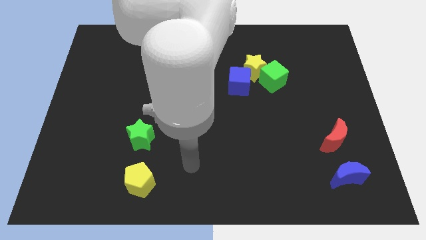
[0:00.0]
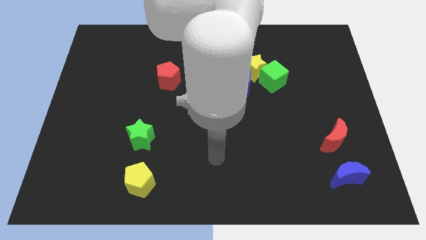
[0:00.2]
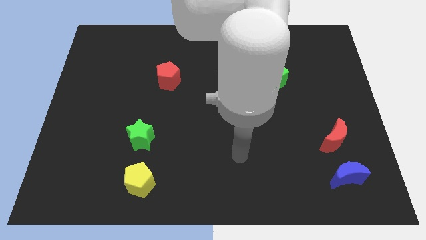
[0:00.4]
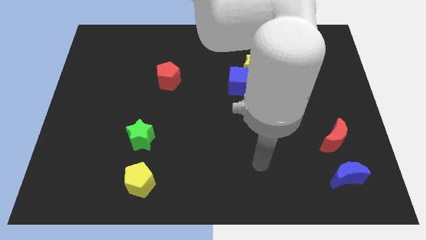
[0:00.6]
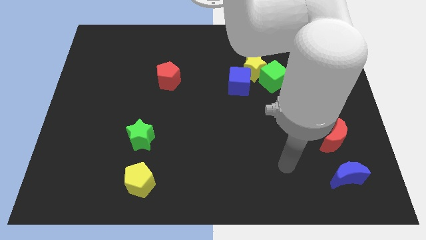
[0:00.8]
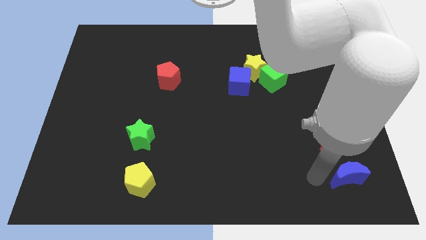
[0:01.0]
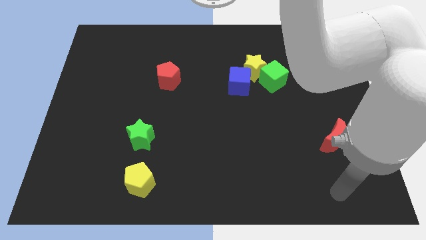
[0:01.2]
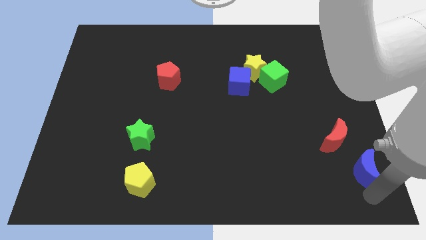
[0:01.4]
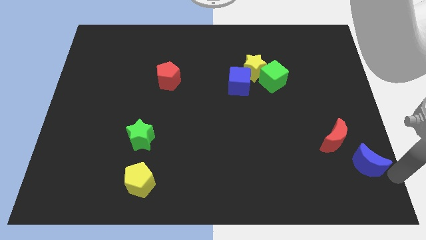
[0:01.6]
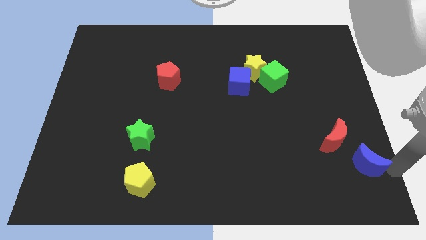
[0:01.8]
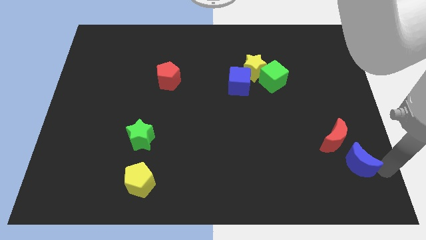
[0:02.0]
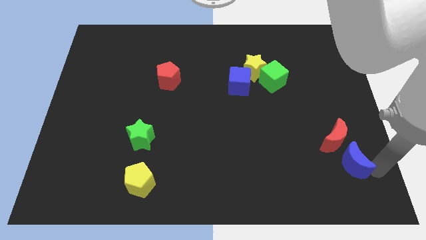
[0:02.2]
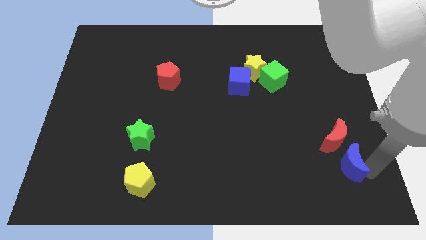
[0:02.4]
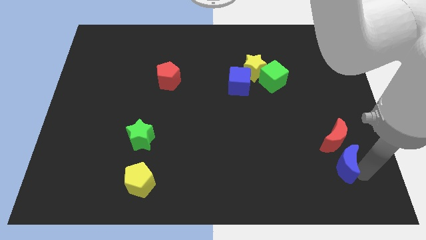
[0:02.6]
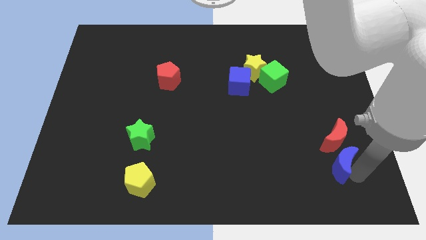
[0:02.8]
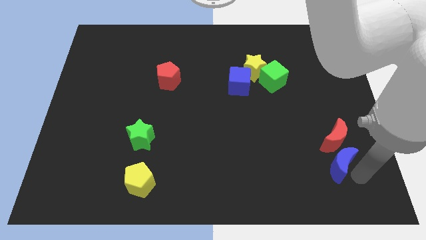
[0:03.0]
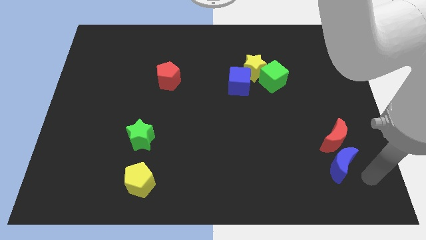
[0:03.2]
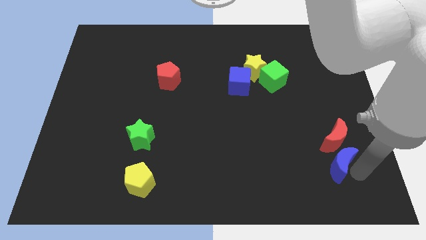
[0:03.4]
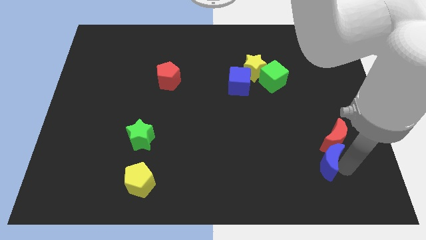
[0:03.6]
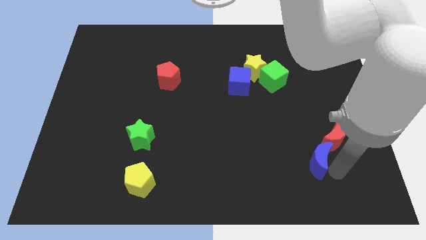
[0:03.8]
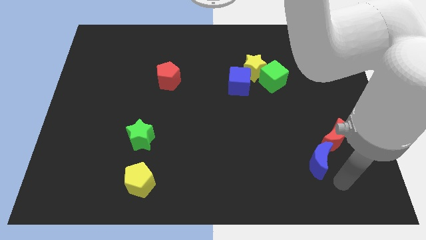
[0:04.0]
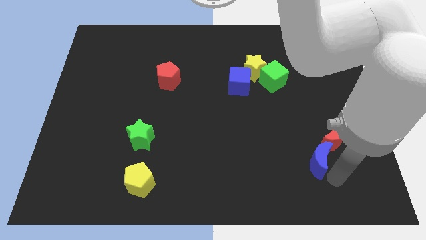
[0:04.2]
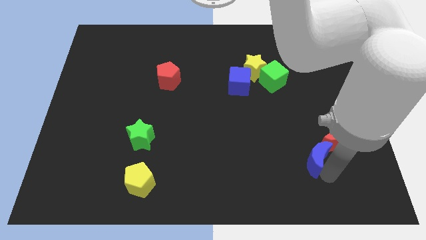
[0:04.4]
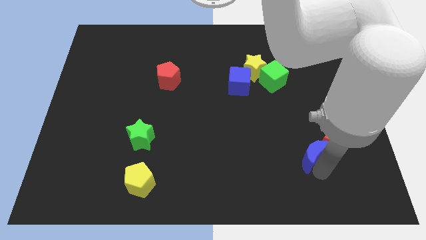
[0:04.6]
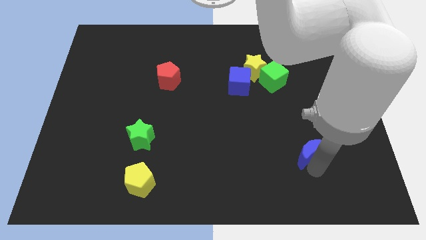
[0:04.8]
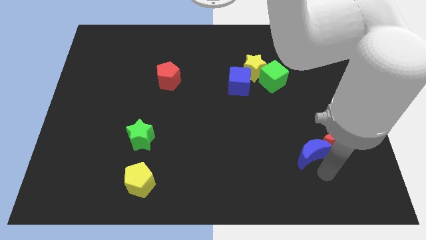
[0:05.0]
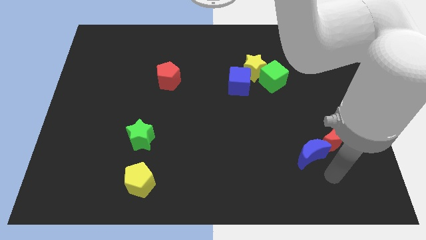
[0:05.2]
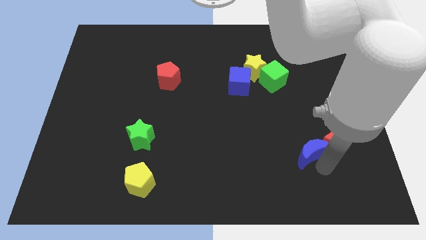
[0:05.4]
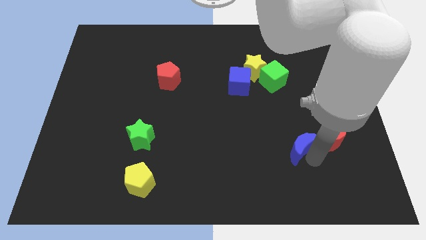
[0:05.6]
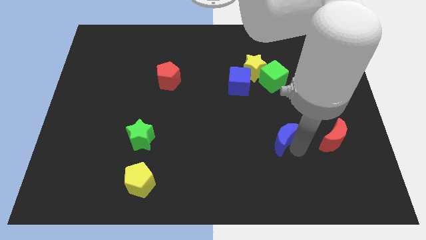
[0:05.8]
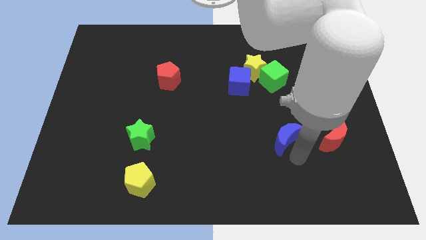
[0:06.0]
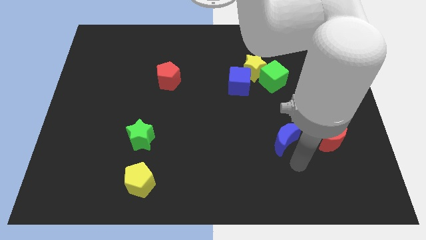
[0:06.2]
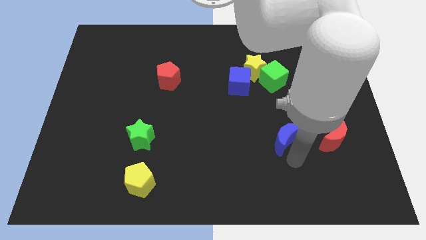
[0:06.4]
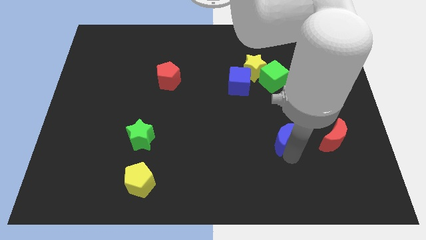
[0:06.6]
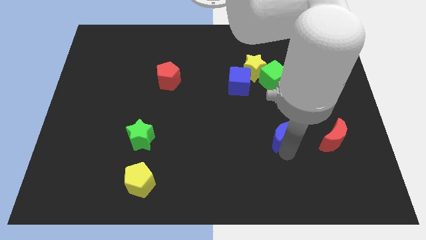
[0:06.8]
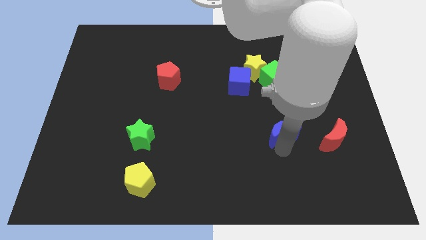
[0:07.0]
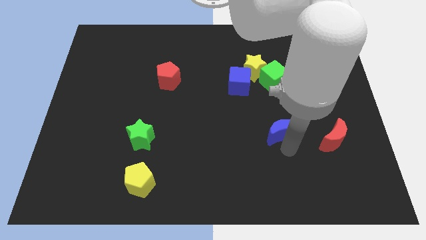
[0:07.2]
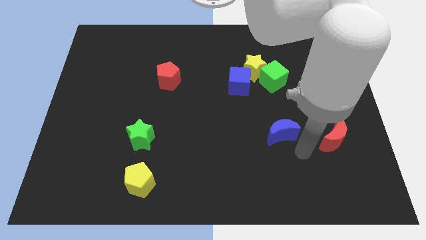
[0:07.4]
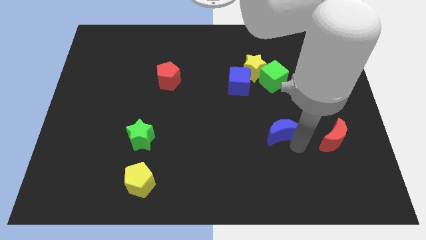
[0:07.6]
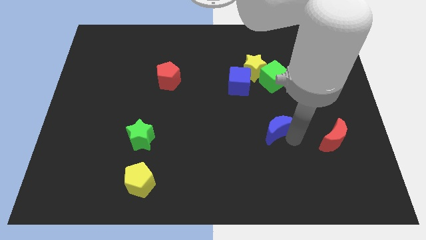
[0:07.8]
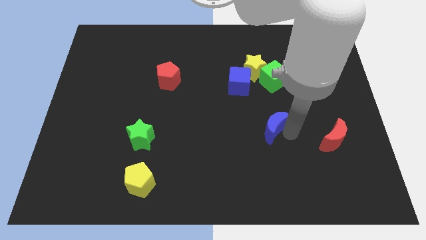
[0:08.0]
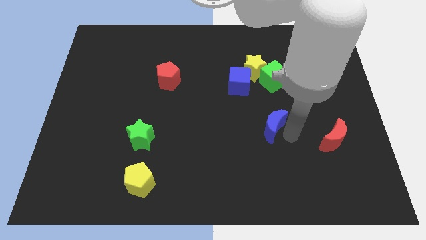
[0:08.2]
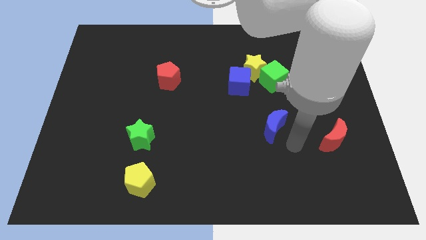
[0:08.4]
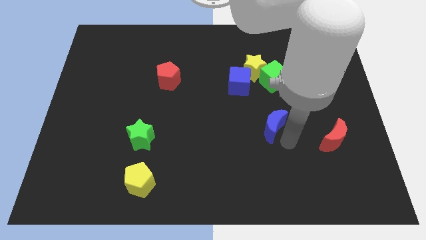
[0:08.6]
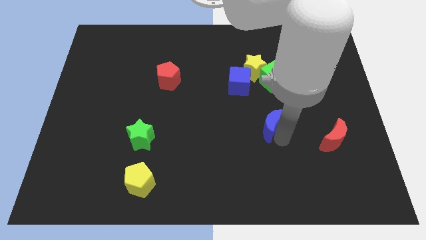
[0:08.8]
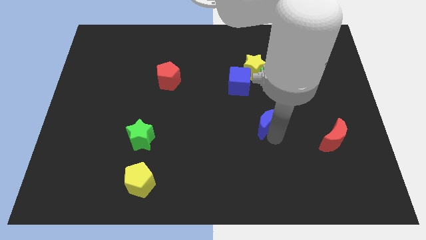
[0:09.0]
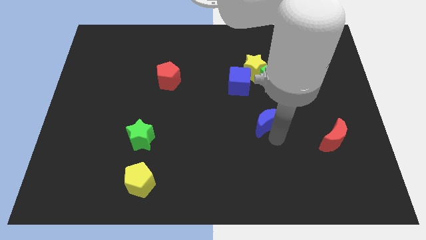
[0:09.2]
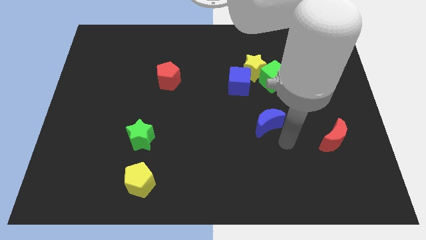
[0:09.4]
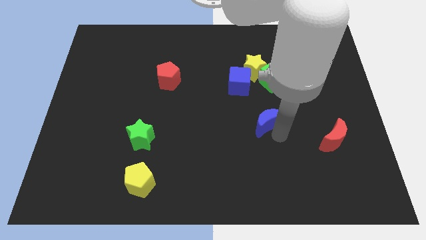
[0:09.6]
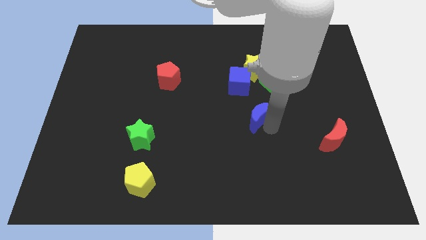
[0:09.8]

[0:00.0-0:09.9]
put the blue moon to the center

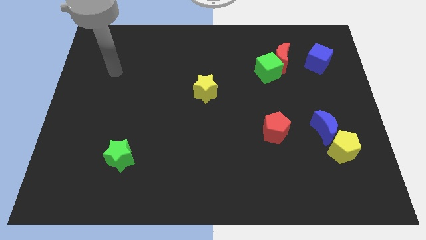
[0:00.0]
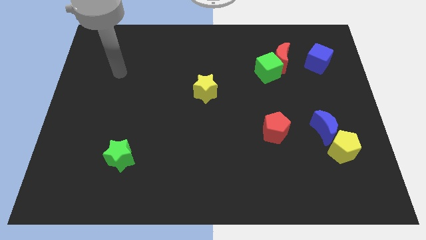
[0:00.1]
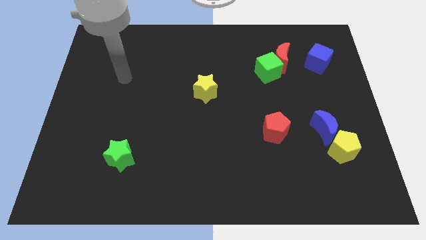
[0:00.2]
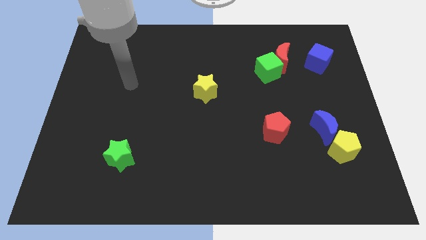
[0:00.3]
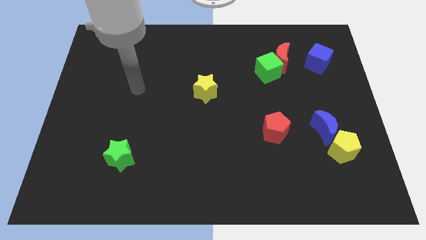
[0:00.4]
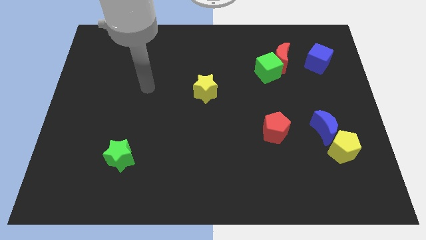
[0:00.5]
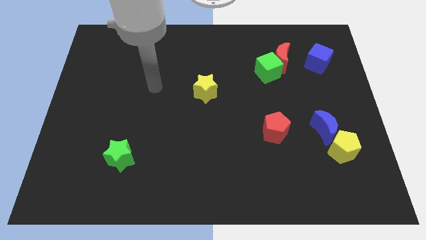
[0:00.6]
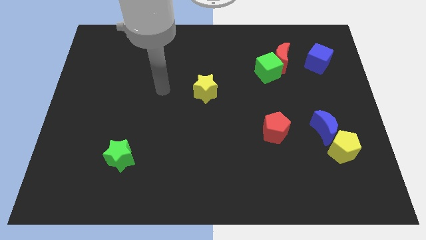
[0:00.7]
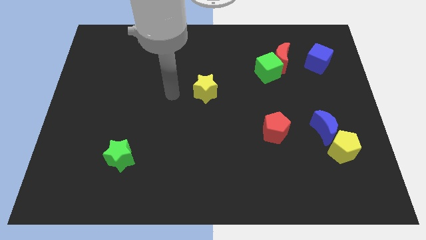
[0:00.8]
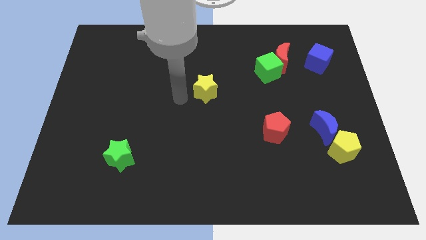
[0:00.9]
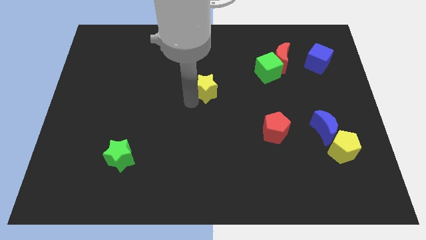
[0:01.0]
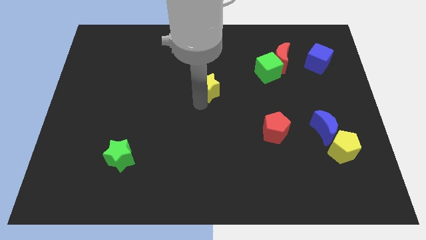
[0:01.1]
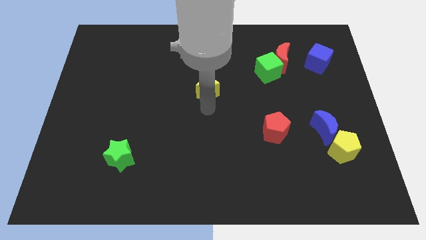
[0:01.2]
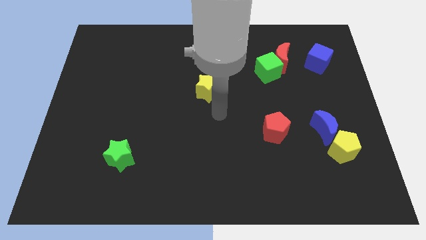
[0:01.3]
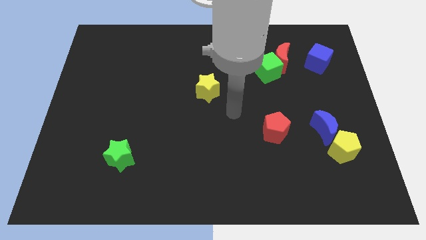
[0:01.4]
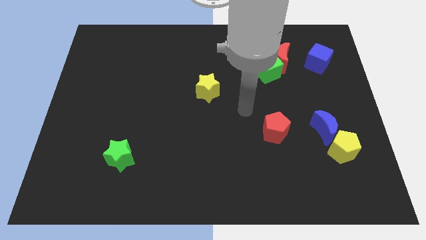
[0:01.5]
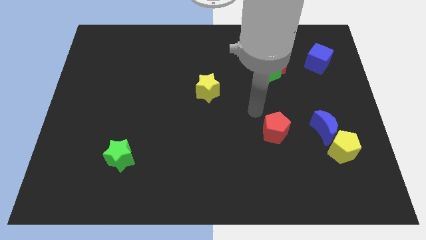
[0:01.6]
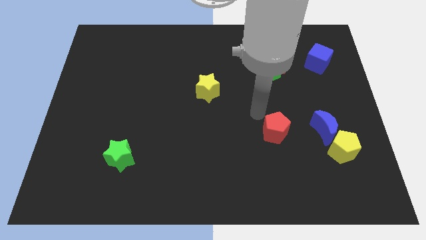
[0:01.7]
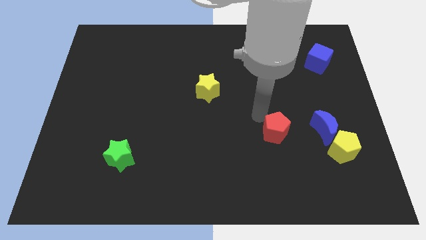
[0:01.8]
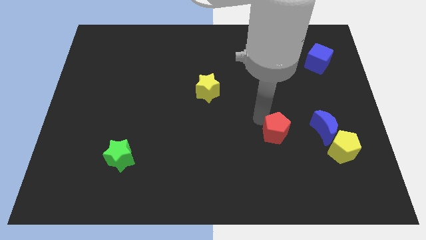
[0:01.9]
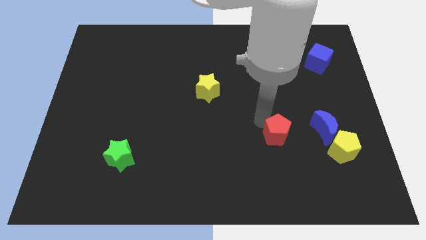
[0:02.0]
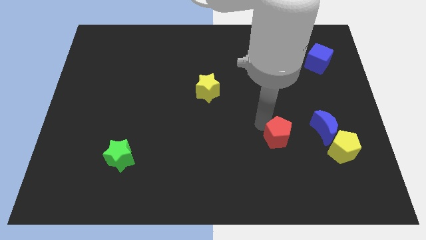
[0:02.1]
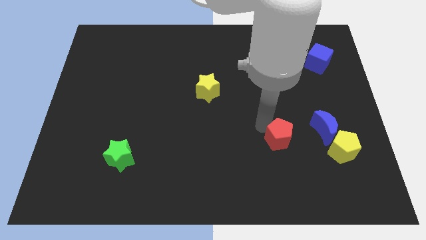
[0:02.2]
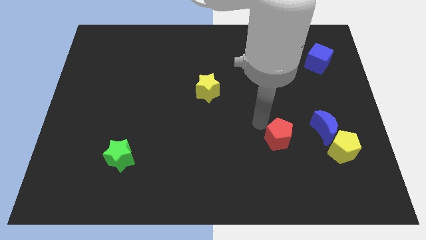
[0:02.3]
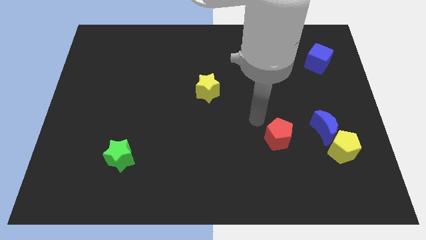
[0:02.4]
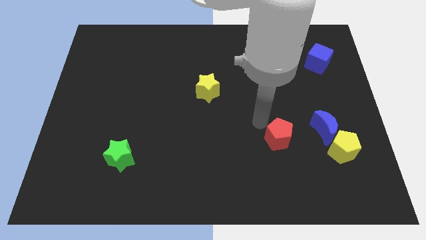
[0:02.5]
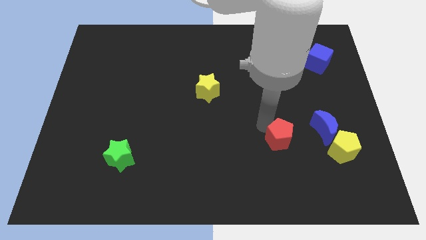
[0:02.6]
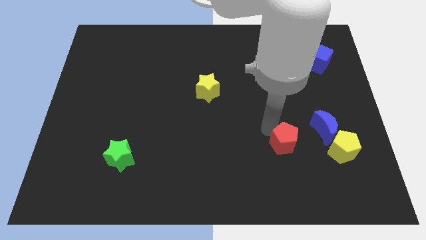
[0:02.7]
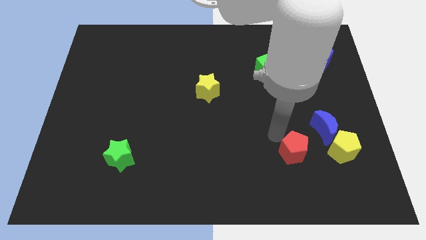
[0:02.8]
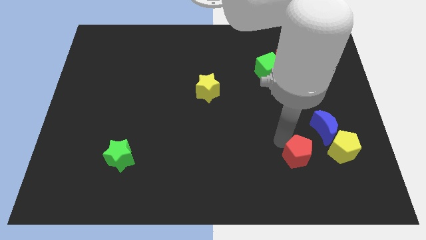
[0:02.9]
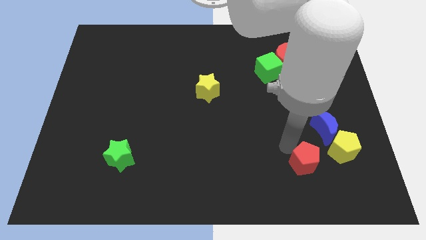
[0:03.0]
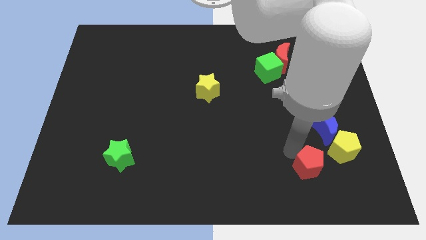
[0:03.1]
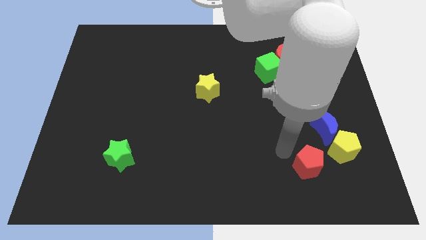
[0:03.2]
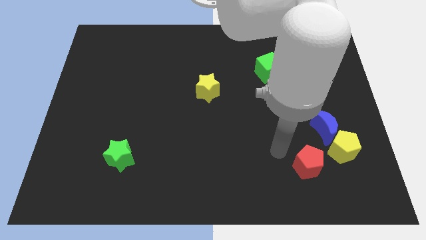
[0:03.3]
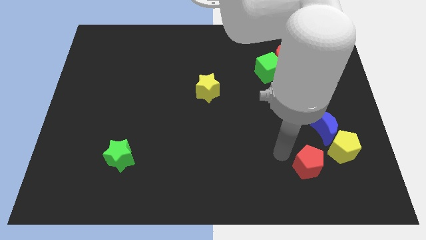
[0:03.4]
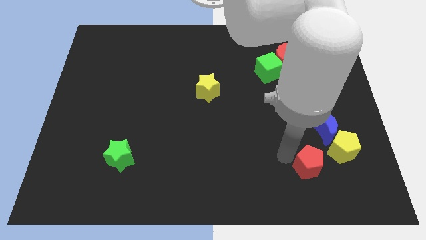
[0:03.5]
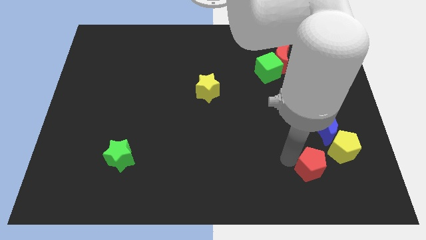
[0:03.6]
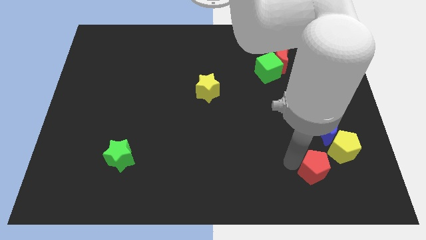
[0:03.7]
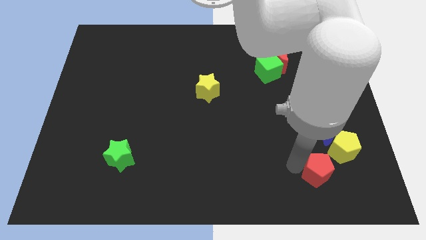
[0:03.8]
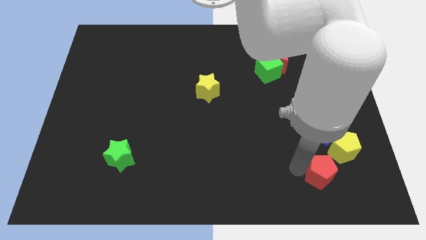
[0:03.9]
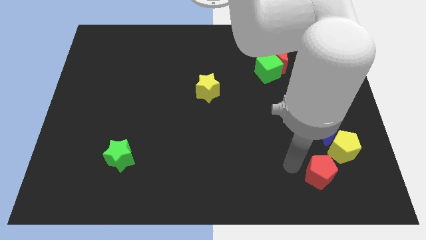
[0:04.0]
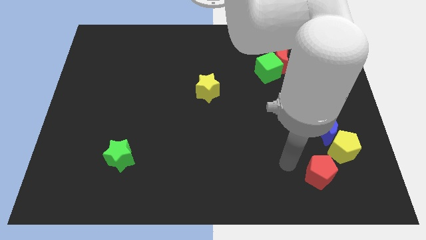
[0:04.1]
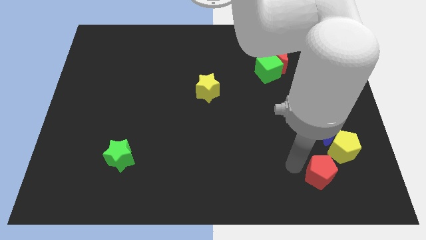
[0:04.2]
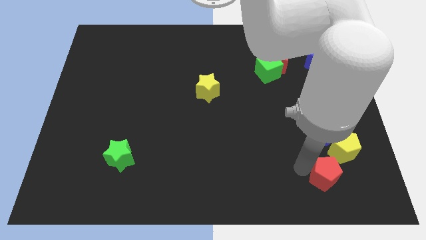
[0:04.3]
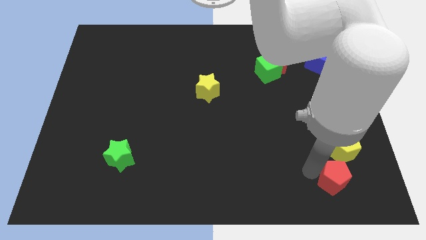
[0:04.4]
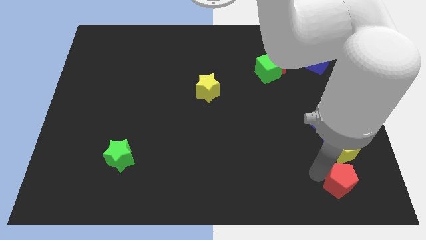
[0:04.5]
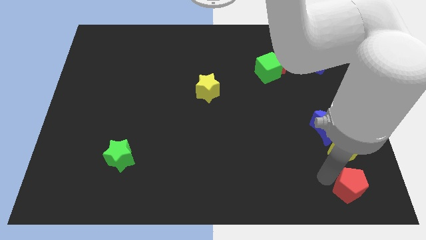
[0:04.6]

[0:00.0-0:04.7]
push the red pentagon to the bottom right corner
